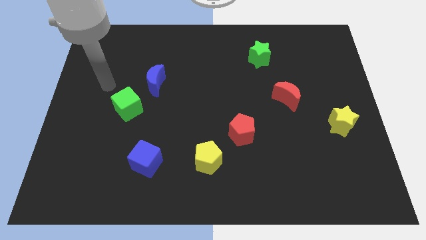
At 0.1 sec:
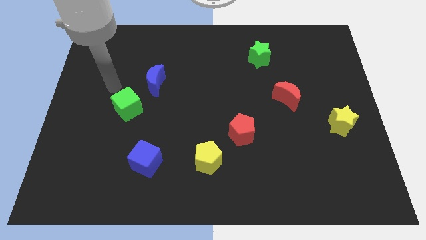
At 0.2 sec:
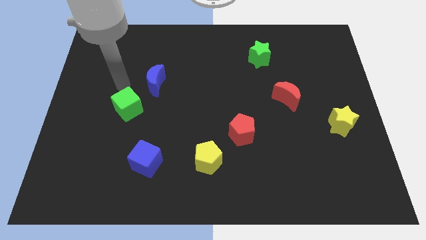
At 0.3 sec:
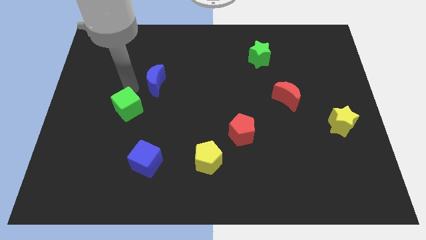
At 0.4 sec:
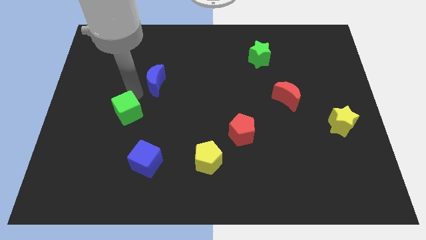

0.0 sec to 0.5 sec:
separate the blue moon from the green cube

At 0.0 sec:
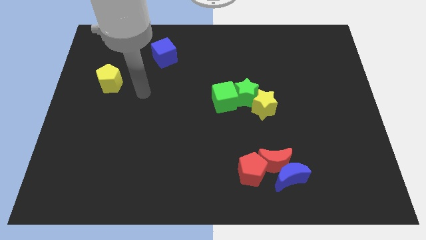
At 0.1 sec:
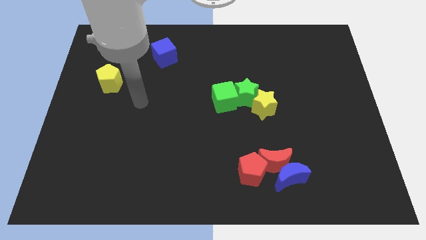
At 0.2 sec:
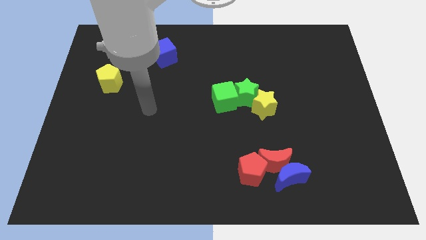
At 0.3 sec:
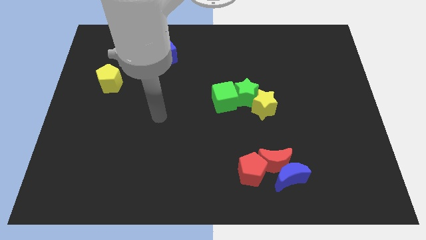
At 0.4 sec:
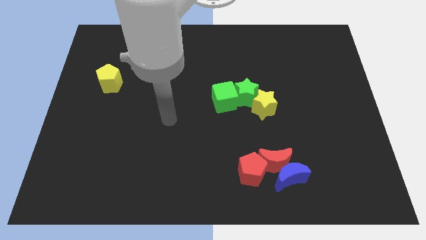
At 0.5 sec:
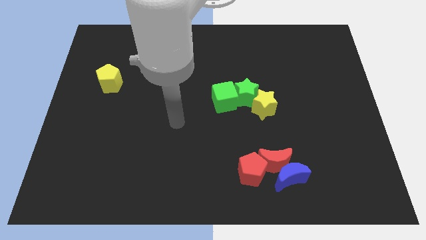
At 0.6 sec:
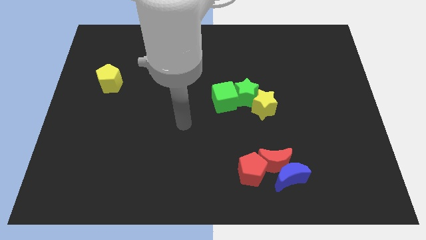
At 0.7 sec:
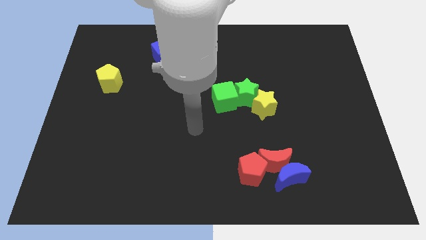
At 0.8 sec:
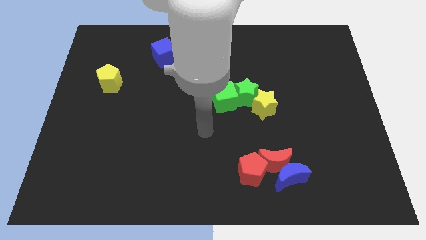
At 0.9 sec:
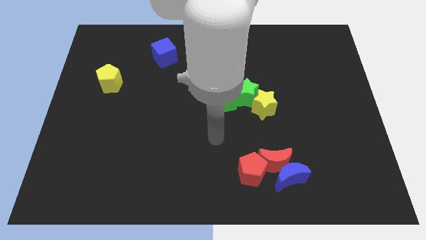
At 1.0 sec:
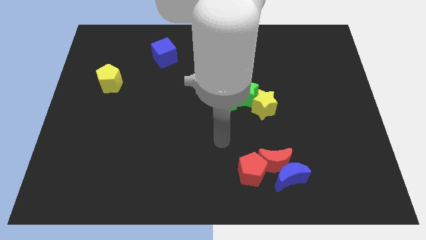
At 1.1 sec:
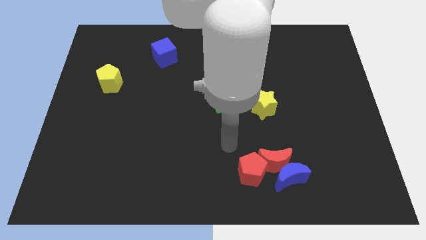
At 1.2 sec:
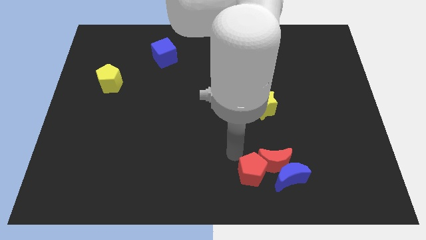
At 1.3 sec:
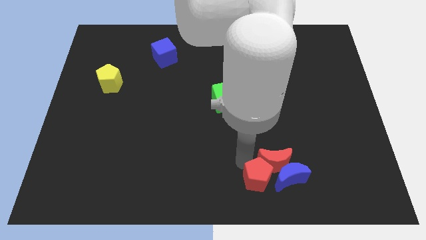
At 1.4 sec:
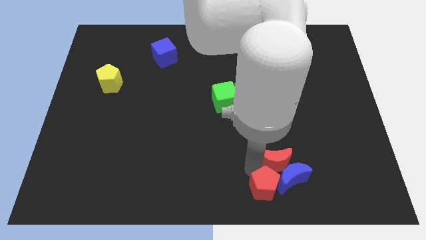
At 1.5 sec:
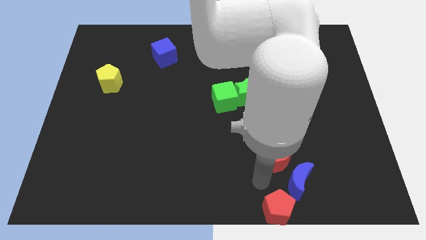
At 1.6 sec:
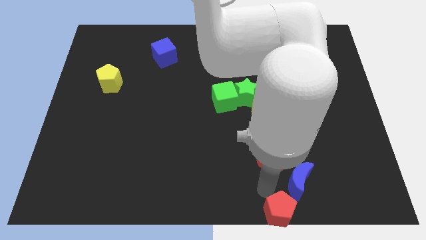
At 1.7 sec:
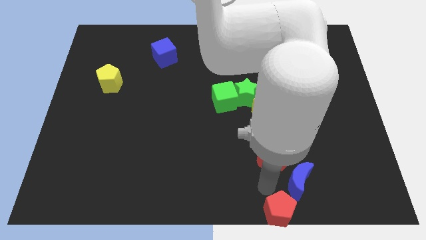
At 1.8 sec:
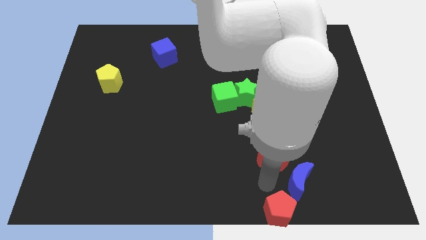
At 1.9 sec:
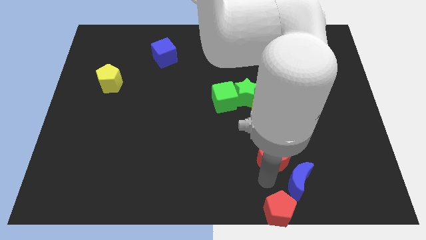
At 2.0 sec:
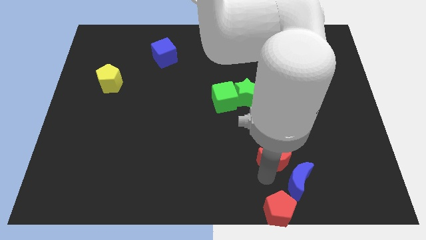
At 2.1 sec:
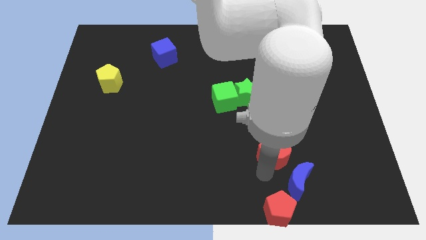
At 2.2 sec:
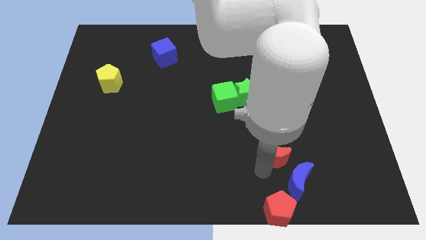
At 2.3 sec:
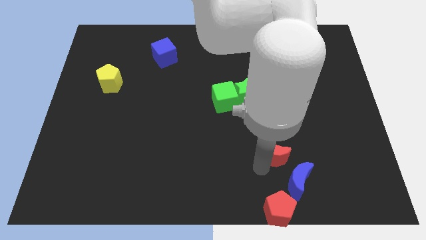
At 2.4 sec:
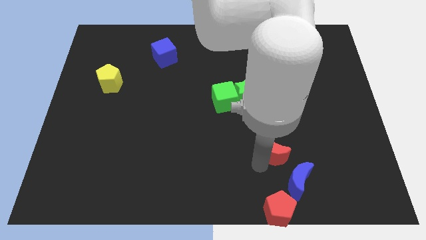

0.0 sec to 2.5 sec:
pull the red moon apart from the blue moon and red pentagon

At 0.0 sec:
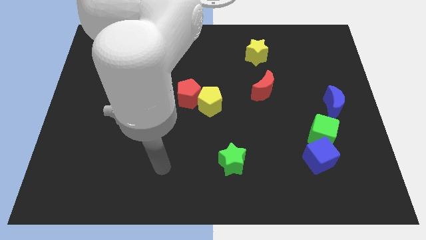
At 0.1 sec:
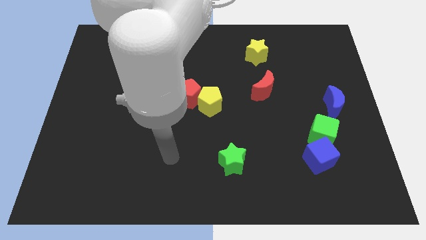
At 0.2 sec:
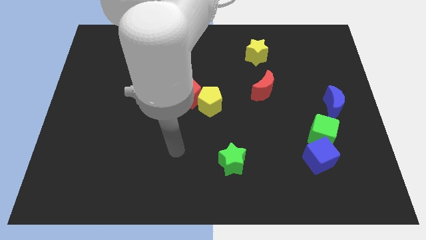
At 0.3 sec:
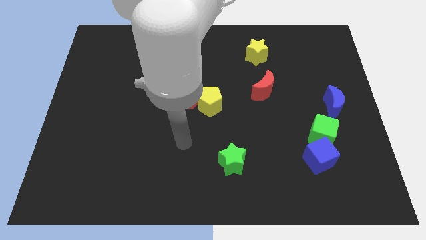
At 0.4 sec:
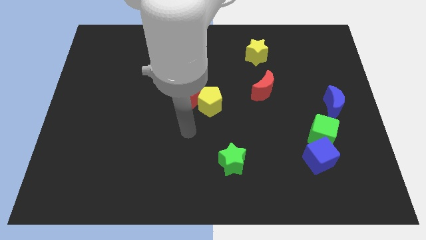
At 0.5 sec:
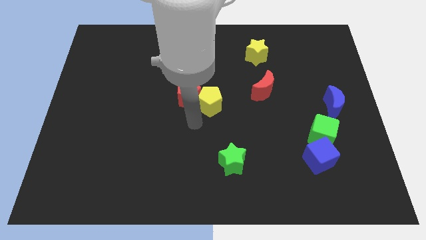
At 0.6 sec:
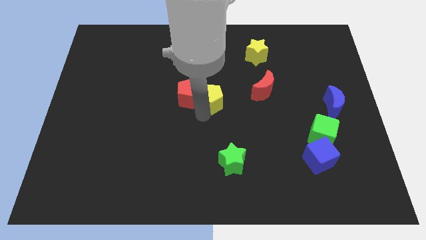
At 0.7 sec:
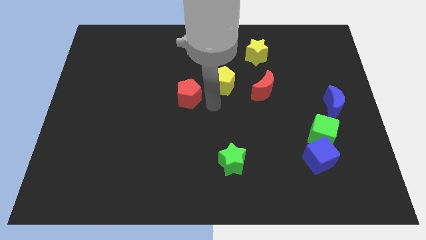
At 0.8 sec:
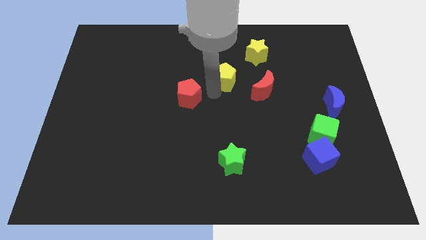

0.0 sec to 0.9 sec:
move the red pentagon away from the yellow pentagon

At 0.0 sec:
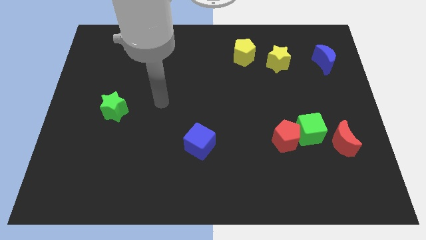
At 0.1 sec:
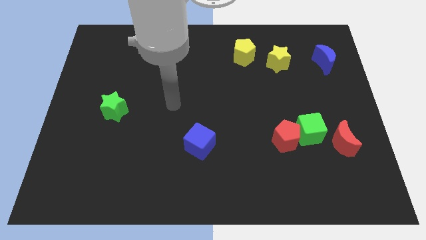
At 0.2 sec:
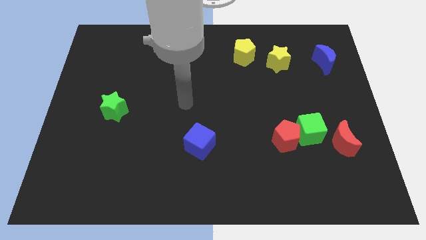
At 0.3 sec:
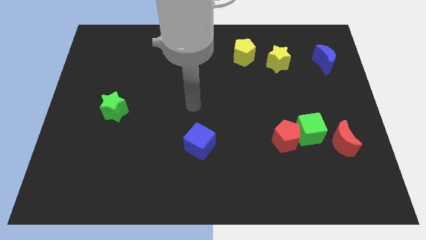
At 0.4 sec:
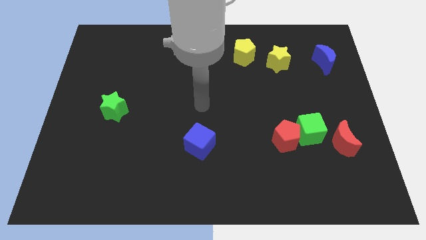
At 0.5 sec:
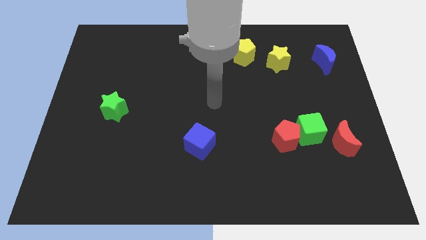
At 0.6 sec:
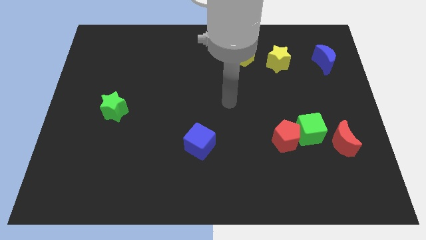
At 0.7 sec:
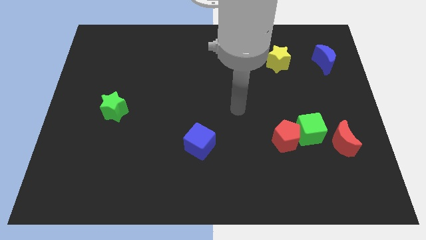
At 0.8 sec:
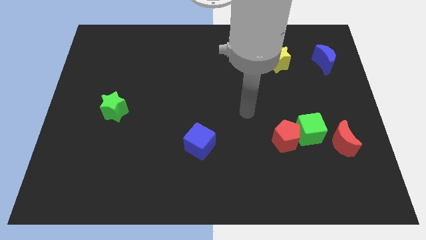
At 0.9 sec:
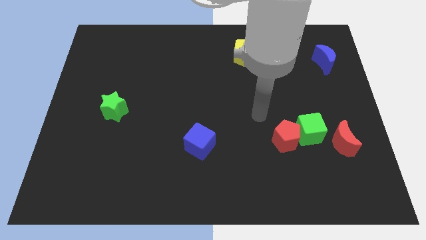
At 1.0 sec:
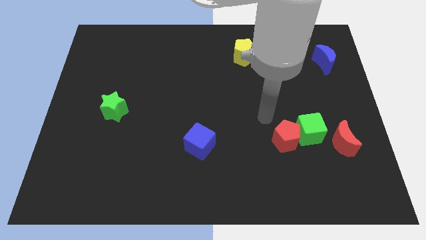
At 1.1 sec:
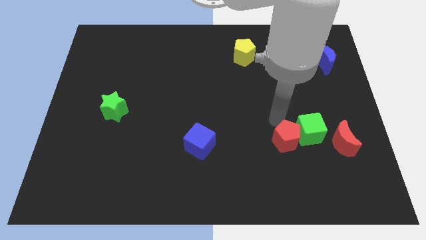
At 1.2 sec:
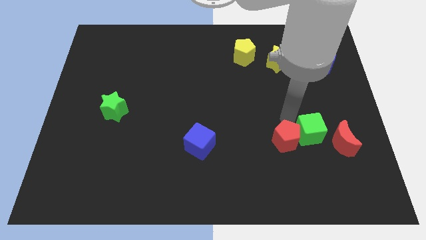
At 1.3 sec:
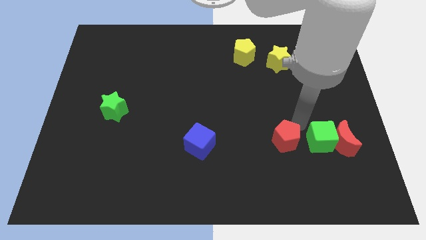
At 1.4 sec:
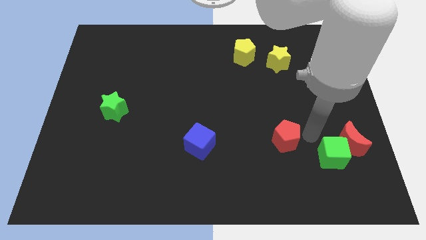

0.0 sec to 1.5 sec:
separate the red pentagon from the green cube

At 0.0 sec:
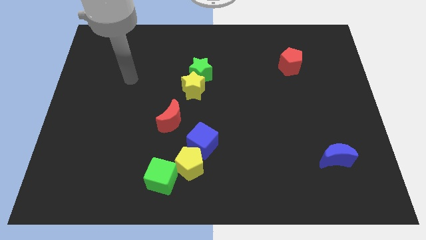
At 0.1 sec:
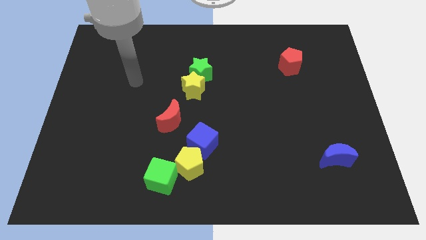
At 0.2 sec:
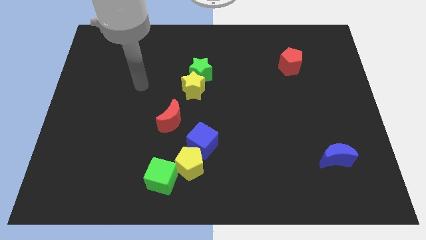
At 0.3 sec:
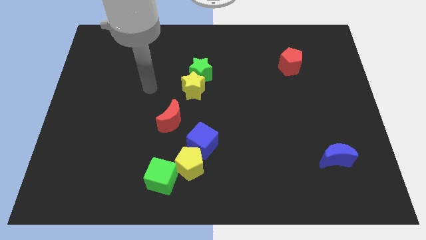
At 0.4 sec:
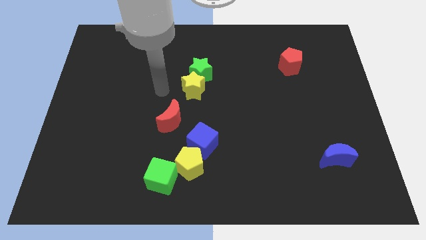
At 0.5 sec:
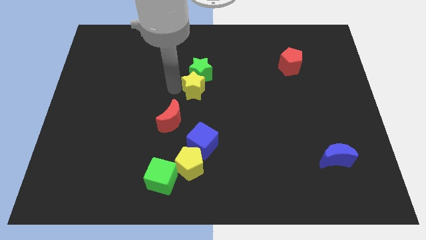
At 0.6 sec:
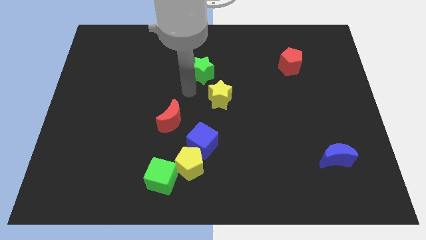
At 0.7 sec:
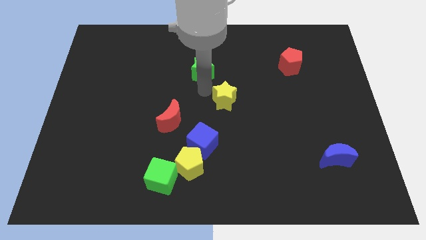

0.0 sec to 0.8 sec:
move the green star away from the yellow star

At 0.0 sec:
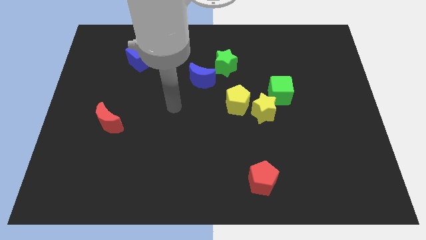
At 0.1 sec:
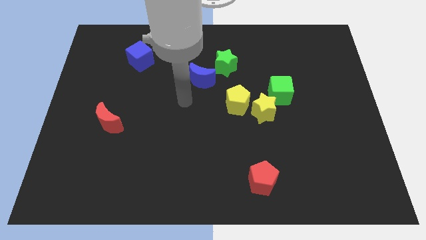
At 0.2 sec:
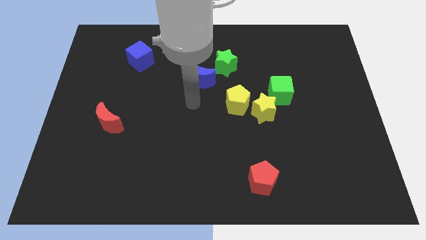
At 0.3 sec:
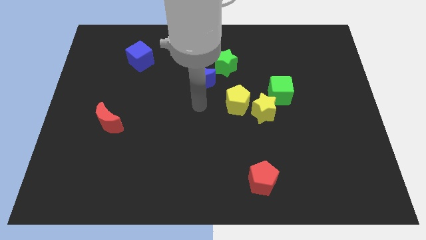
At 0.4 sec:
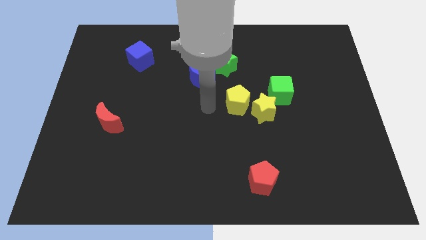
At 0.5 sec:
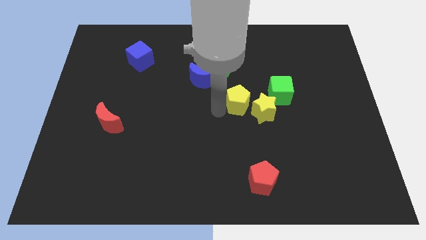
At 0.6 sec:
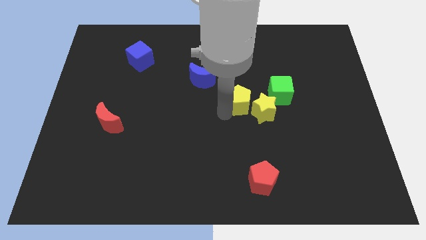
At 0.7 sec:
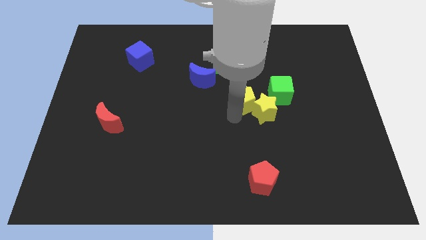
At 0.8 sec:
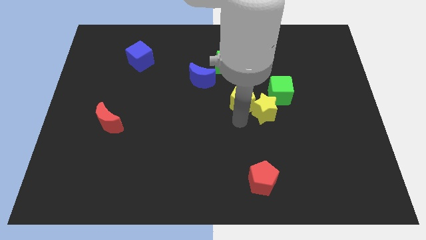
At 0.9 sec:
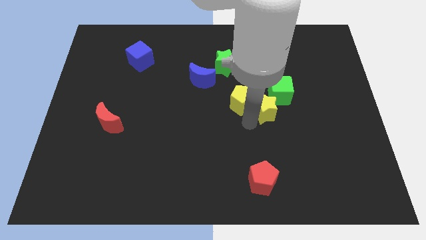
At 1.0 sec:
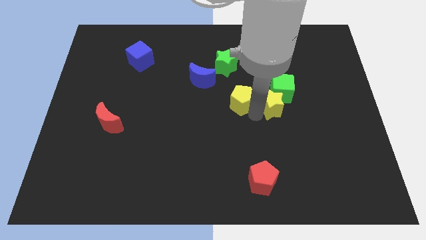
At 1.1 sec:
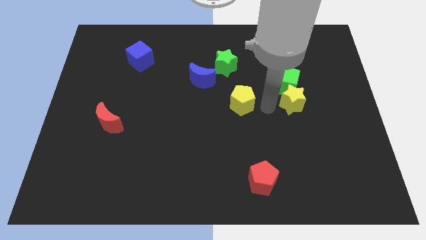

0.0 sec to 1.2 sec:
separate the yellow pentagon from the yellow star

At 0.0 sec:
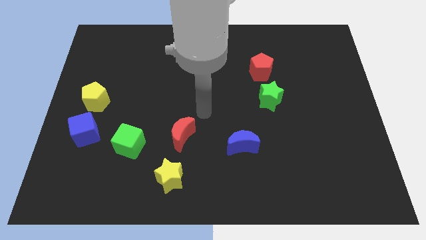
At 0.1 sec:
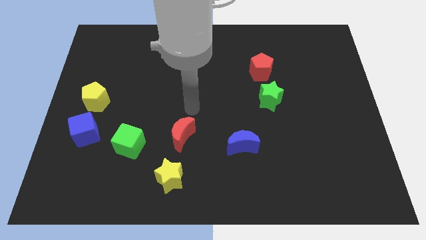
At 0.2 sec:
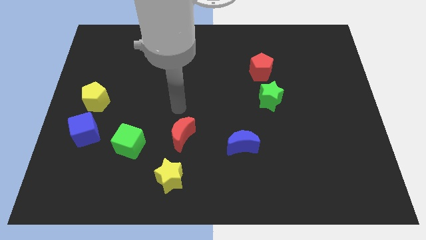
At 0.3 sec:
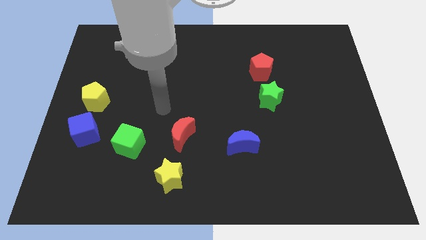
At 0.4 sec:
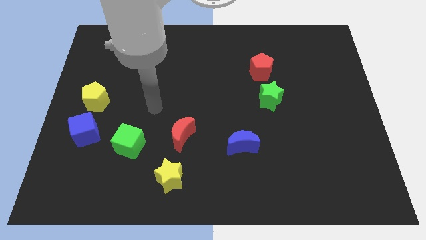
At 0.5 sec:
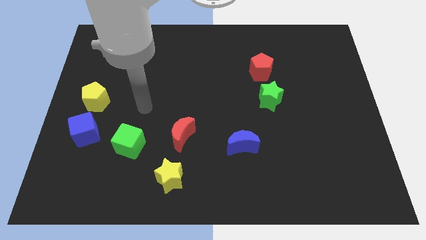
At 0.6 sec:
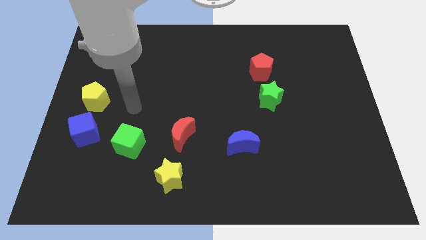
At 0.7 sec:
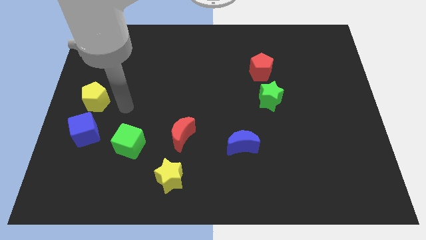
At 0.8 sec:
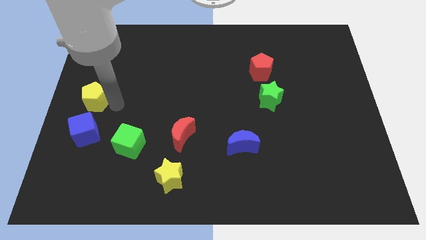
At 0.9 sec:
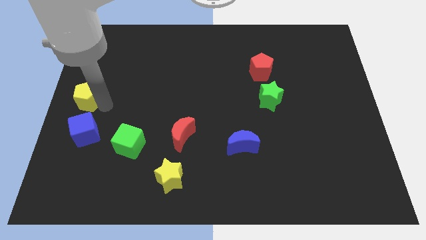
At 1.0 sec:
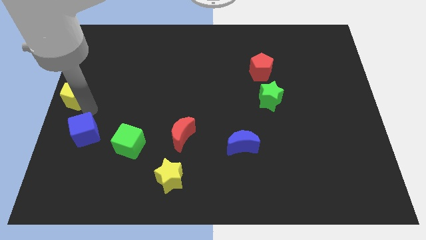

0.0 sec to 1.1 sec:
move the blue cube away from the yellow pentagon

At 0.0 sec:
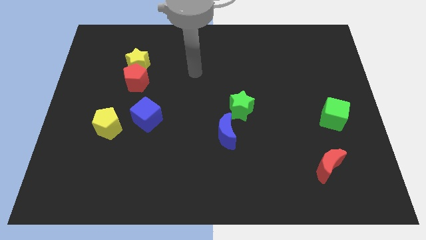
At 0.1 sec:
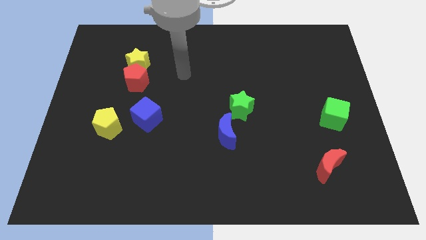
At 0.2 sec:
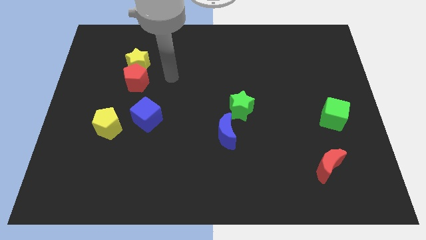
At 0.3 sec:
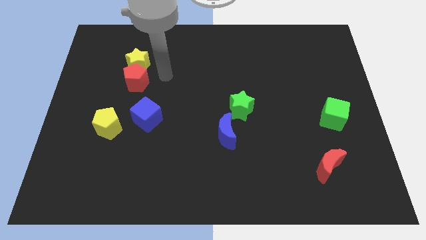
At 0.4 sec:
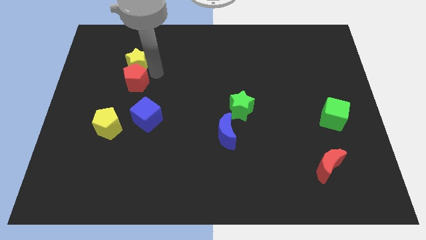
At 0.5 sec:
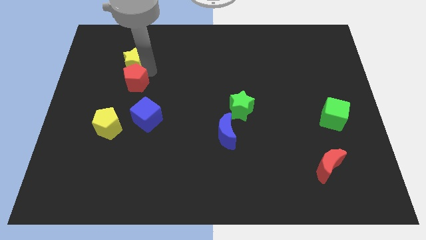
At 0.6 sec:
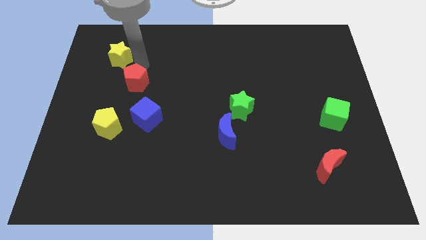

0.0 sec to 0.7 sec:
separate the red pentagon from the yellow star
